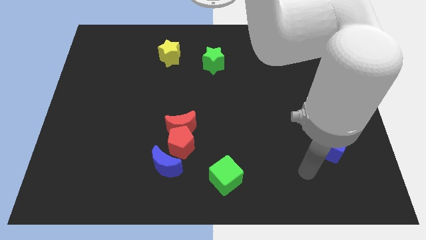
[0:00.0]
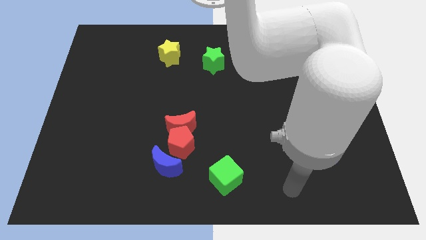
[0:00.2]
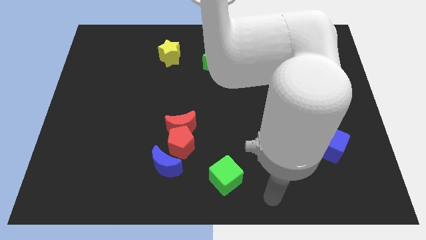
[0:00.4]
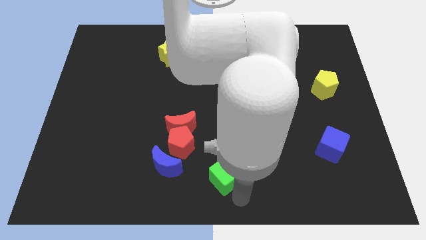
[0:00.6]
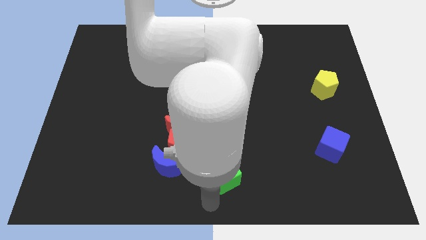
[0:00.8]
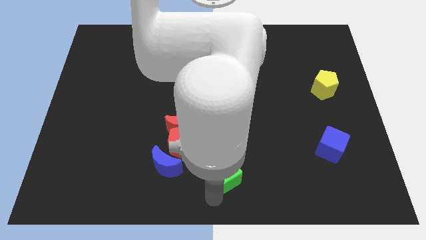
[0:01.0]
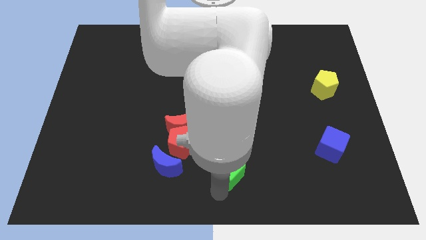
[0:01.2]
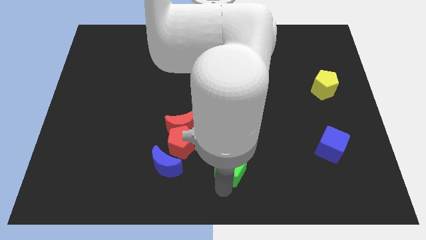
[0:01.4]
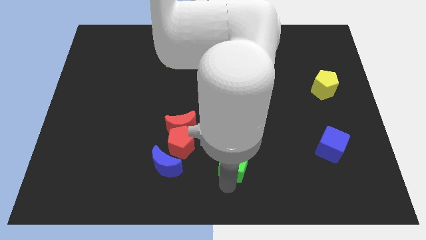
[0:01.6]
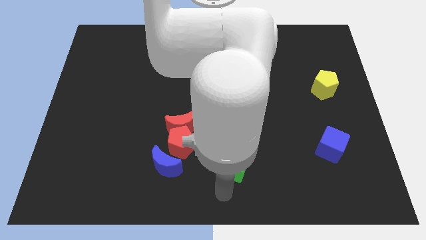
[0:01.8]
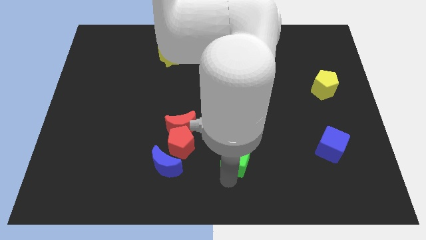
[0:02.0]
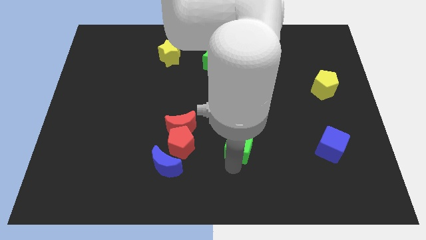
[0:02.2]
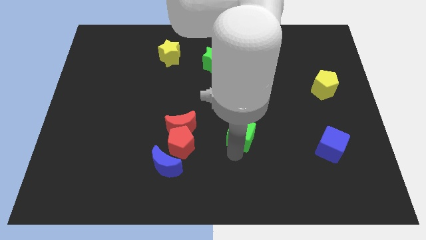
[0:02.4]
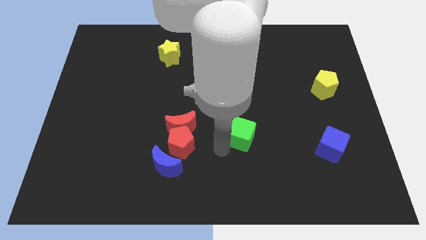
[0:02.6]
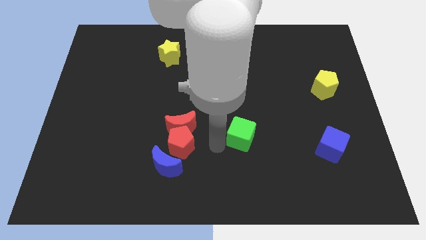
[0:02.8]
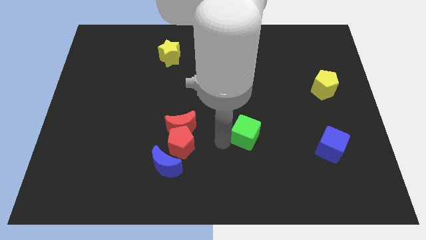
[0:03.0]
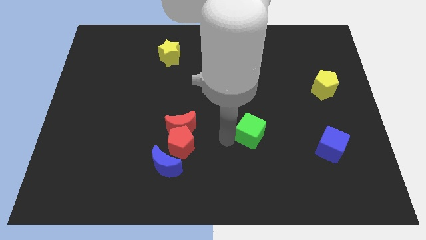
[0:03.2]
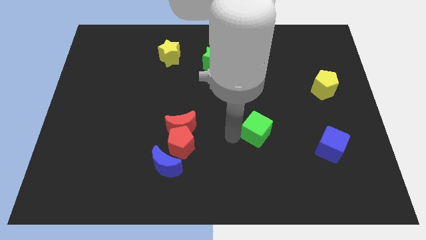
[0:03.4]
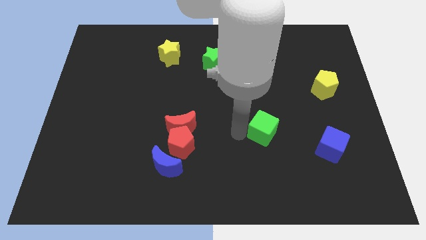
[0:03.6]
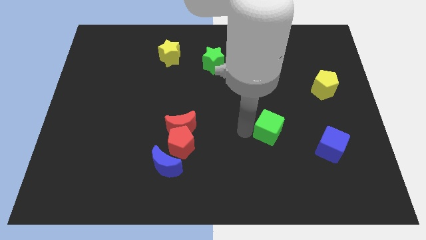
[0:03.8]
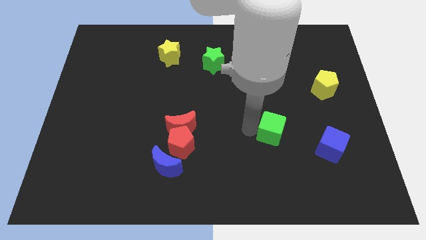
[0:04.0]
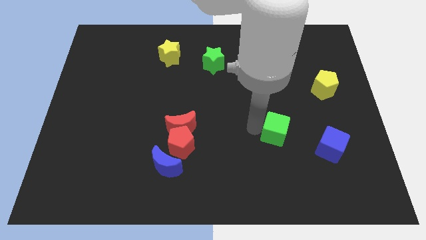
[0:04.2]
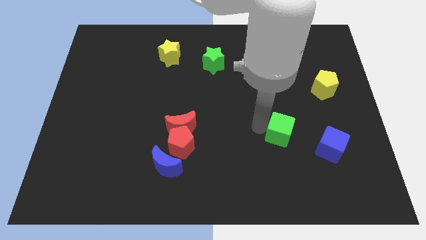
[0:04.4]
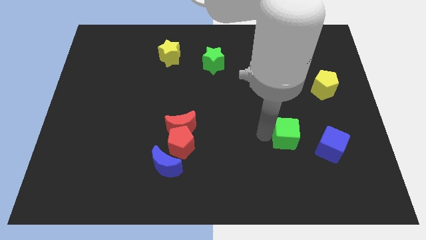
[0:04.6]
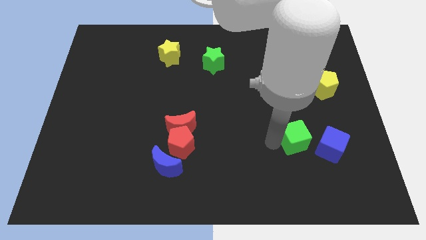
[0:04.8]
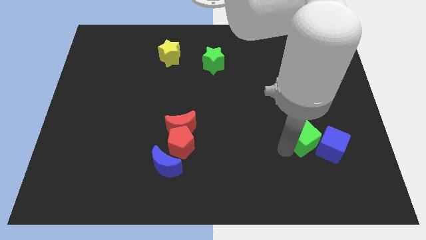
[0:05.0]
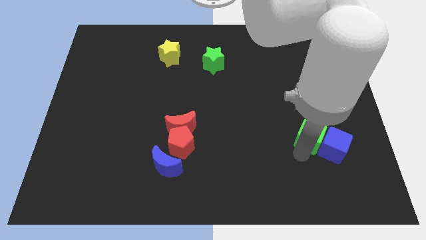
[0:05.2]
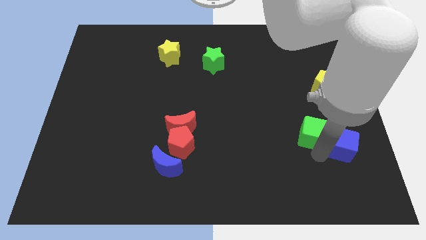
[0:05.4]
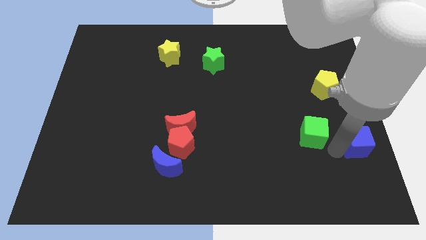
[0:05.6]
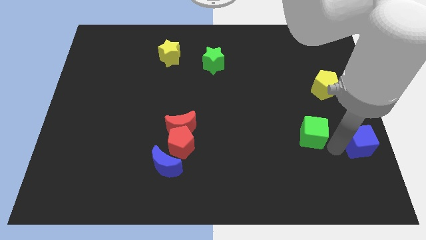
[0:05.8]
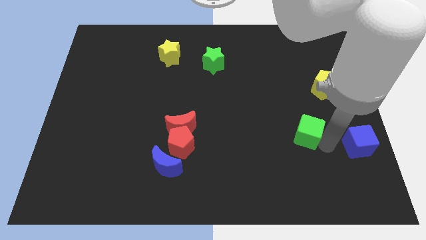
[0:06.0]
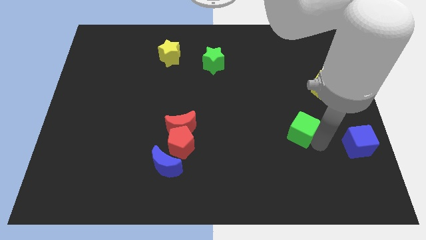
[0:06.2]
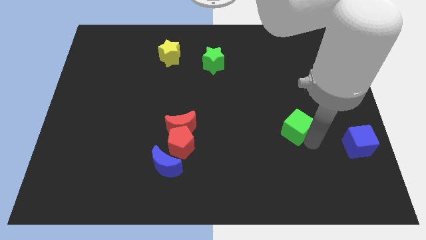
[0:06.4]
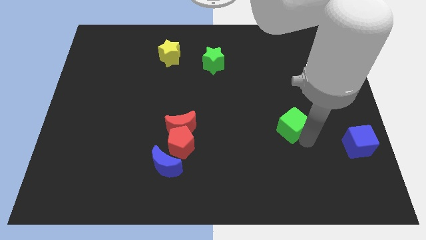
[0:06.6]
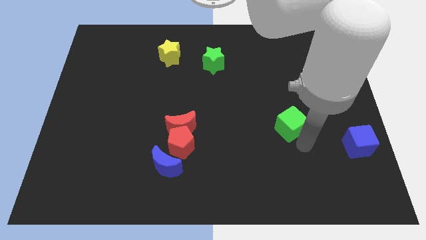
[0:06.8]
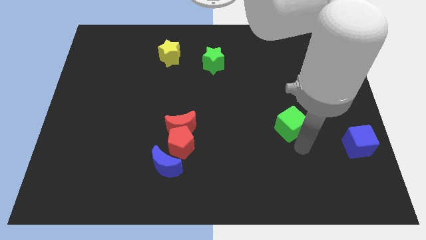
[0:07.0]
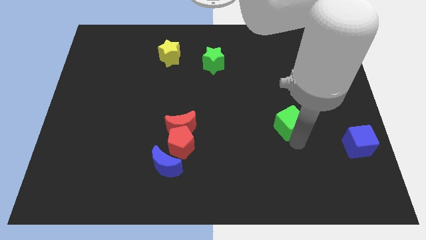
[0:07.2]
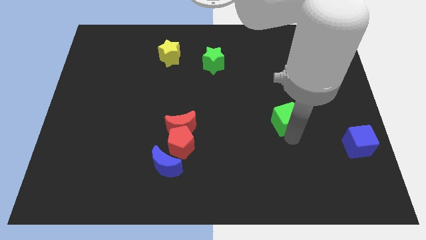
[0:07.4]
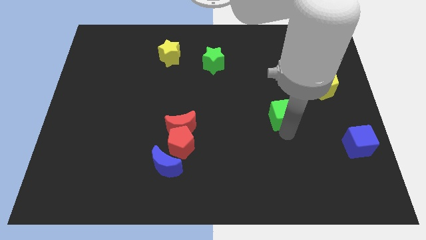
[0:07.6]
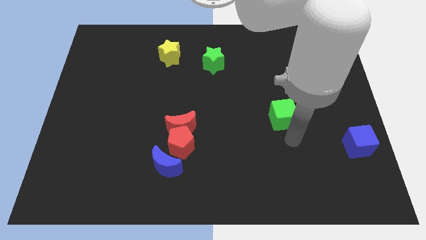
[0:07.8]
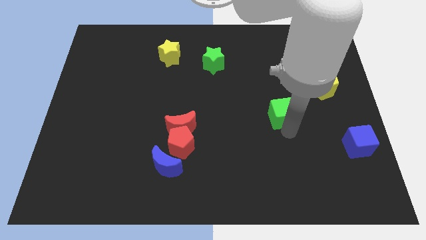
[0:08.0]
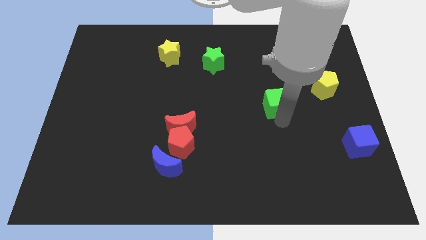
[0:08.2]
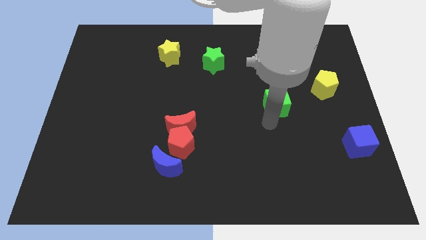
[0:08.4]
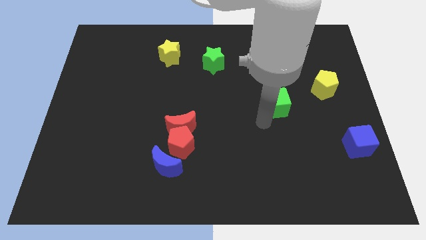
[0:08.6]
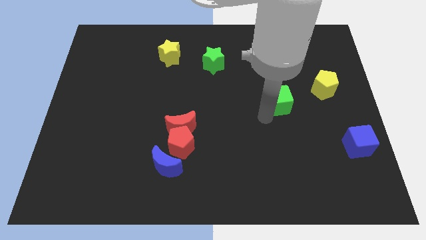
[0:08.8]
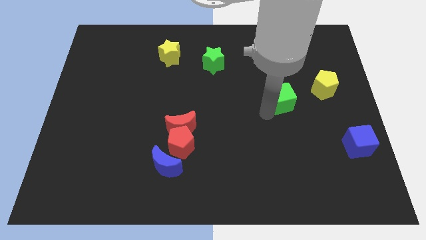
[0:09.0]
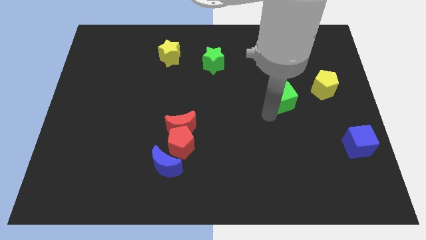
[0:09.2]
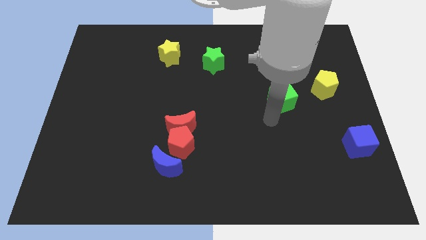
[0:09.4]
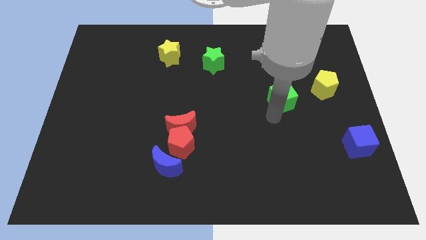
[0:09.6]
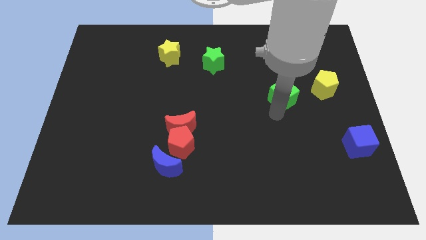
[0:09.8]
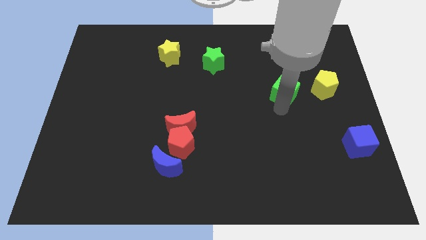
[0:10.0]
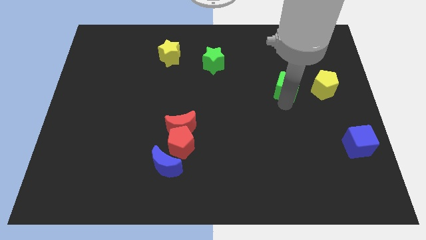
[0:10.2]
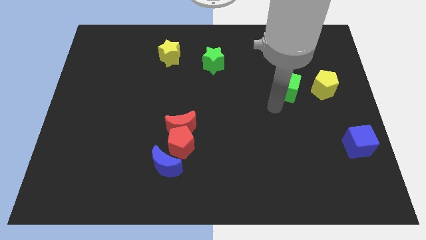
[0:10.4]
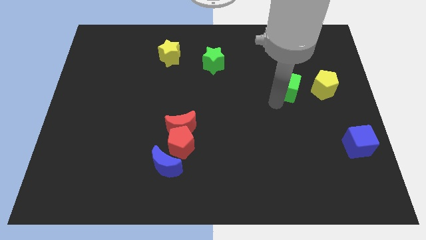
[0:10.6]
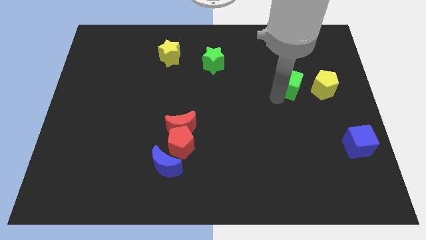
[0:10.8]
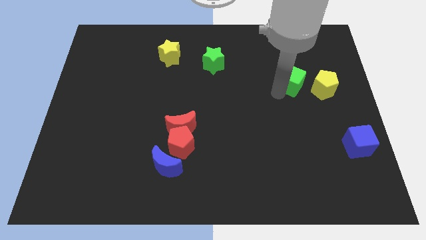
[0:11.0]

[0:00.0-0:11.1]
slide the green cube to the top left of the yellow pentagon

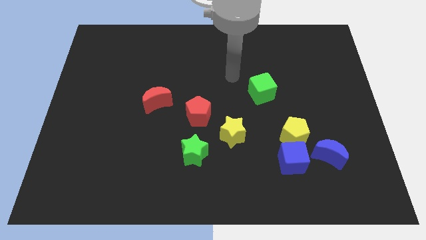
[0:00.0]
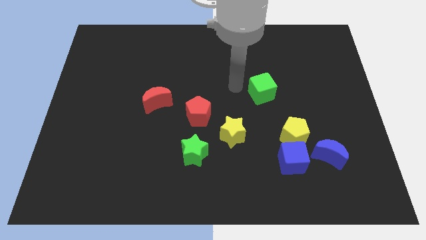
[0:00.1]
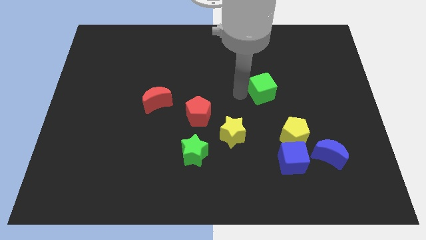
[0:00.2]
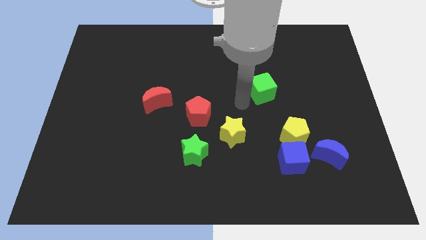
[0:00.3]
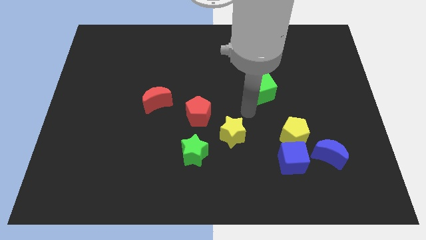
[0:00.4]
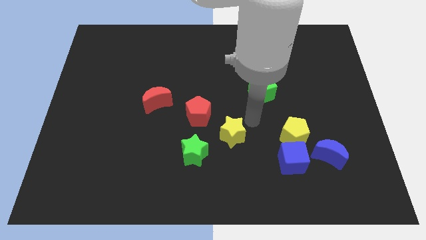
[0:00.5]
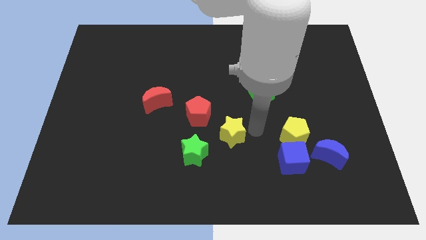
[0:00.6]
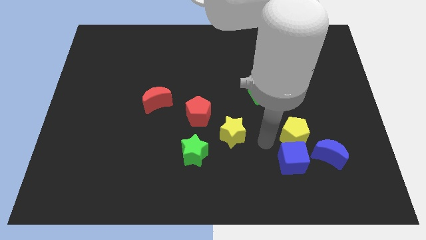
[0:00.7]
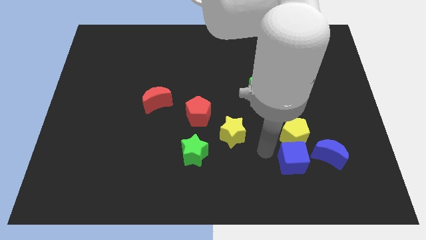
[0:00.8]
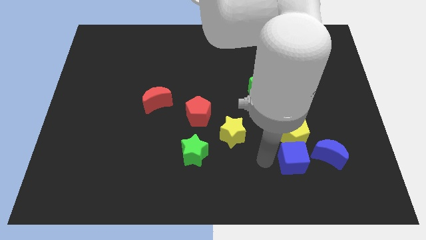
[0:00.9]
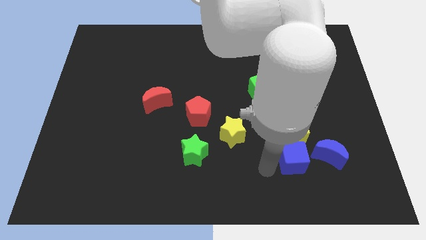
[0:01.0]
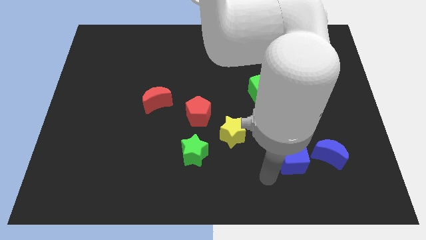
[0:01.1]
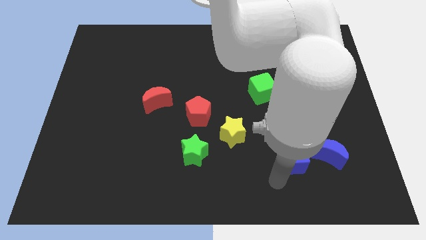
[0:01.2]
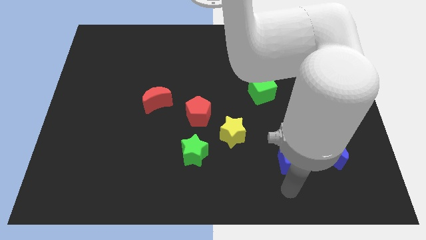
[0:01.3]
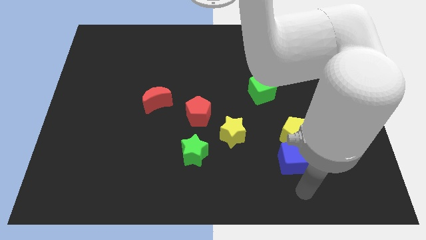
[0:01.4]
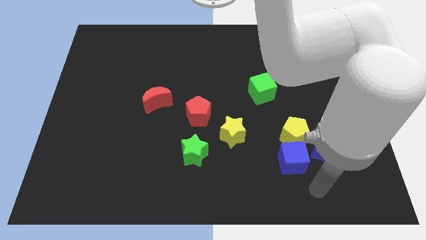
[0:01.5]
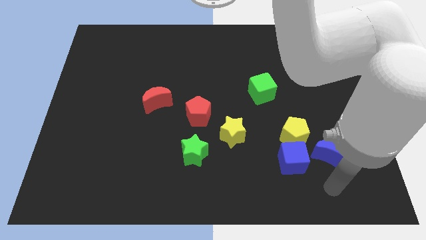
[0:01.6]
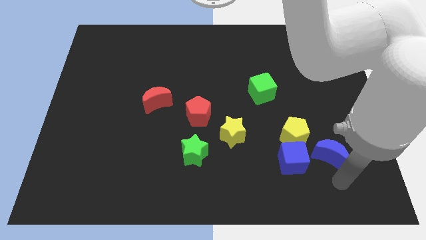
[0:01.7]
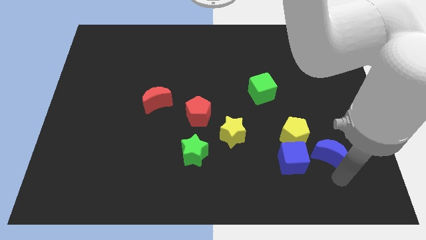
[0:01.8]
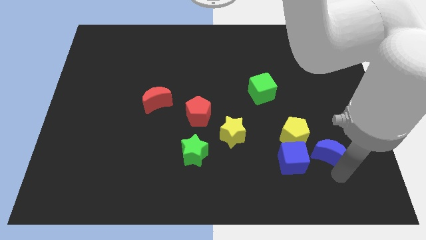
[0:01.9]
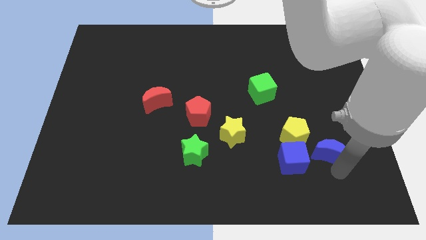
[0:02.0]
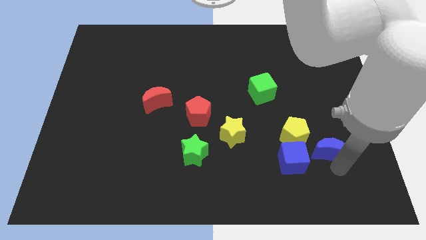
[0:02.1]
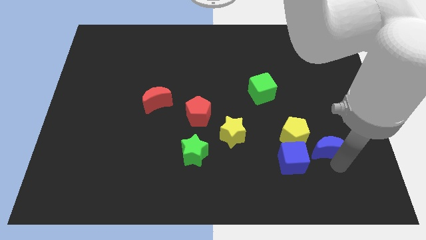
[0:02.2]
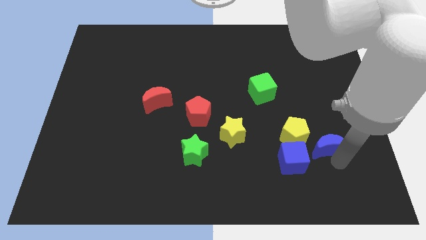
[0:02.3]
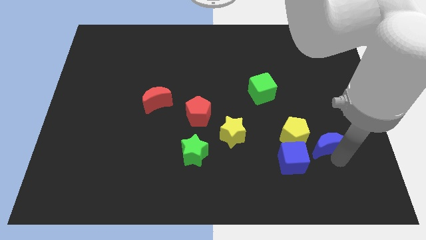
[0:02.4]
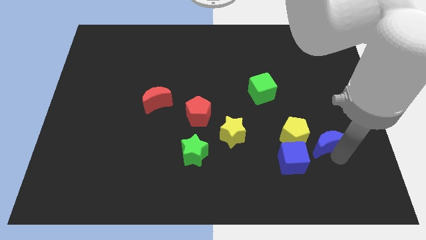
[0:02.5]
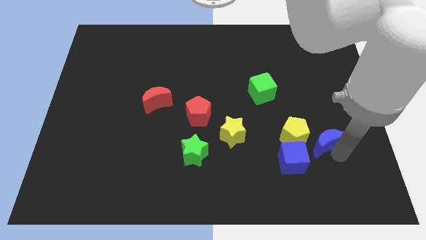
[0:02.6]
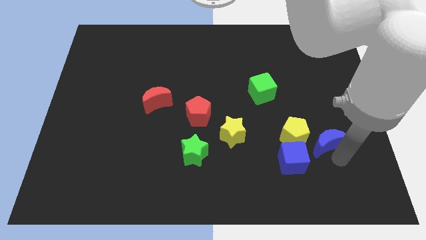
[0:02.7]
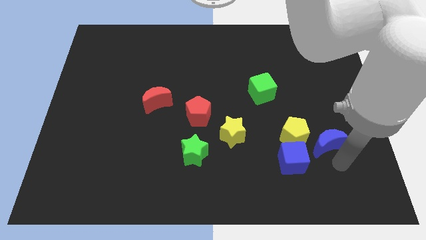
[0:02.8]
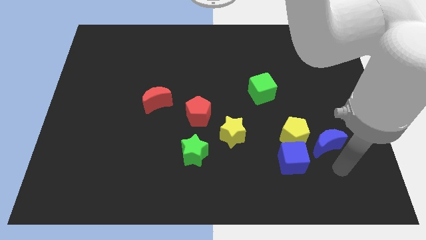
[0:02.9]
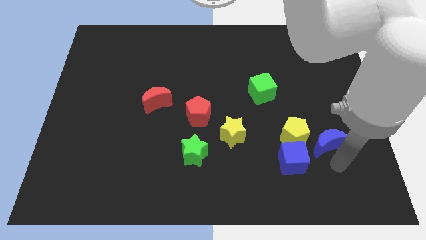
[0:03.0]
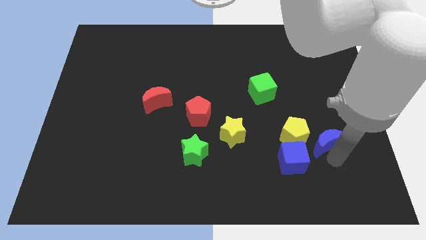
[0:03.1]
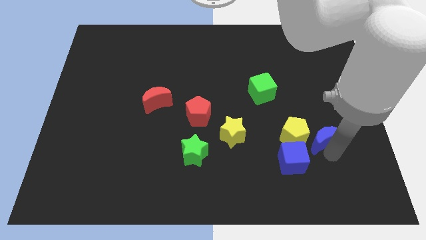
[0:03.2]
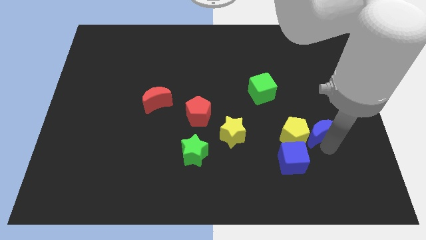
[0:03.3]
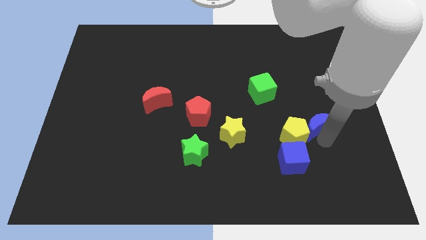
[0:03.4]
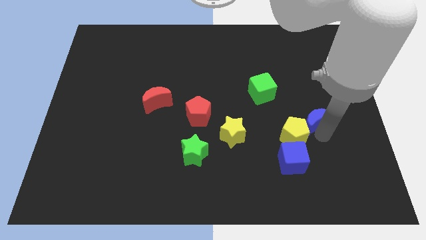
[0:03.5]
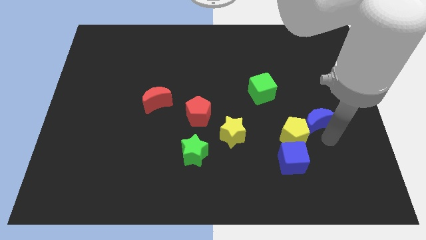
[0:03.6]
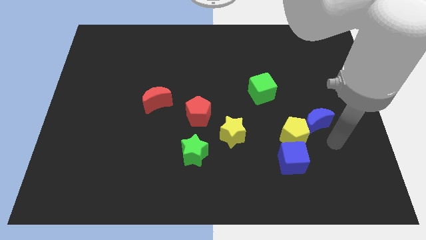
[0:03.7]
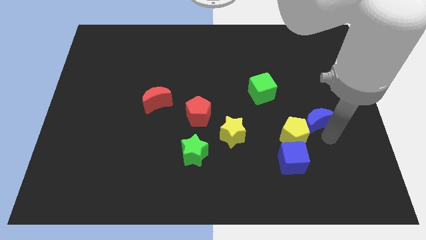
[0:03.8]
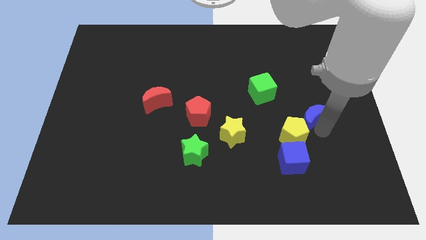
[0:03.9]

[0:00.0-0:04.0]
push the blue moon to the top side of the yellow pentagon
